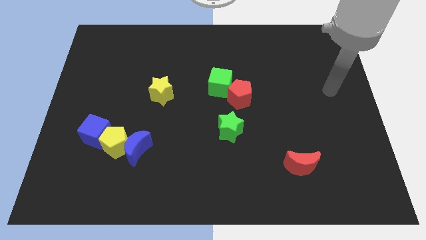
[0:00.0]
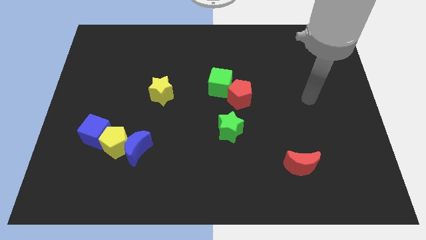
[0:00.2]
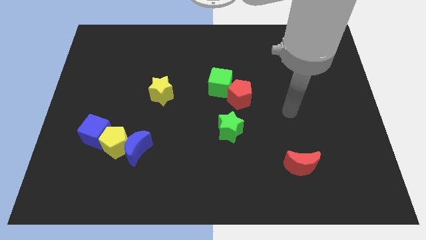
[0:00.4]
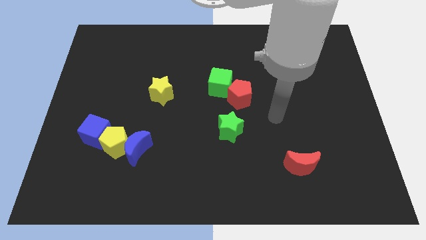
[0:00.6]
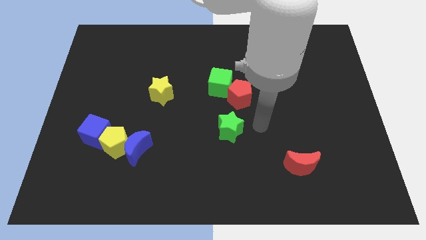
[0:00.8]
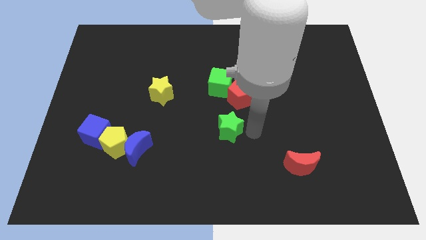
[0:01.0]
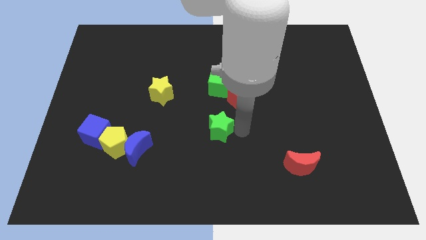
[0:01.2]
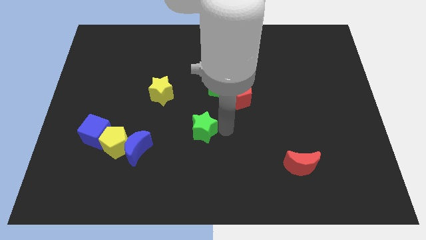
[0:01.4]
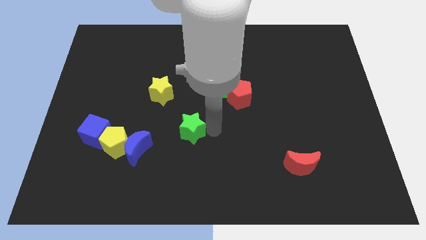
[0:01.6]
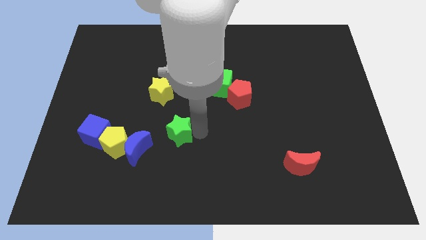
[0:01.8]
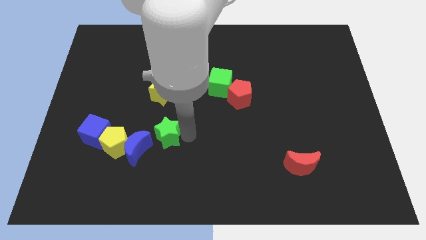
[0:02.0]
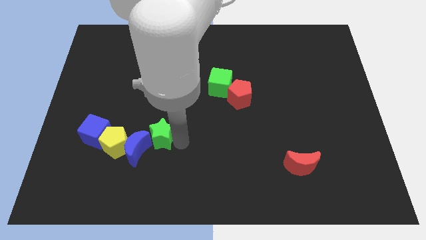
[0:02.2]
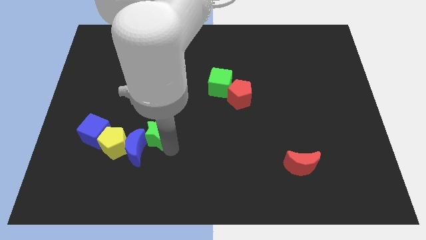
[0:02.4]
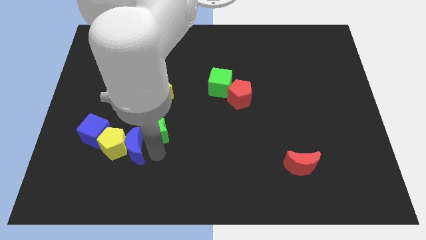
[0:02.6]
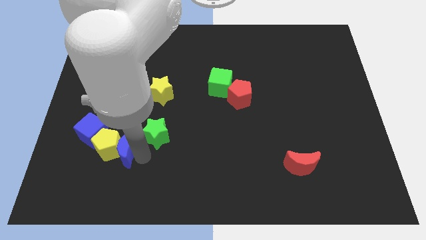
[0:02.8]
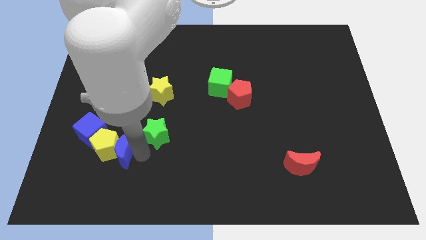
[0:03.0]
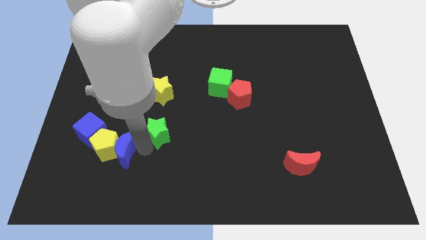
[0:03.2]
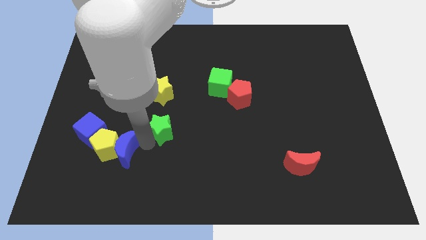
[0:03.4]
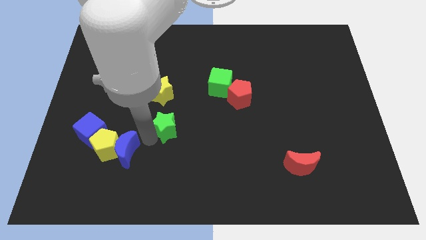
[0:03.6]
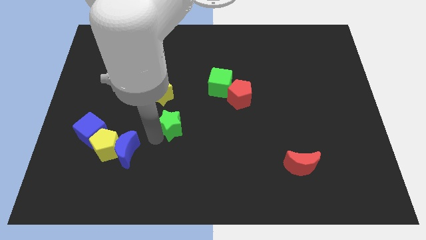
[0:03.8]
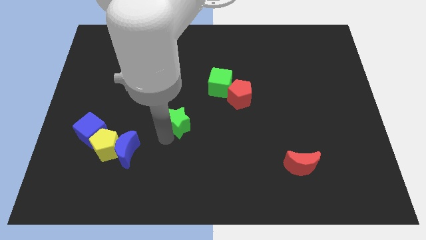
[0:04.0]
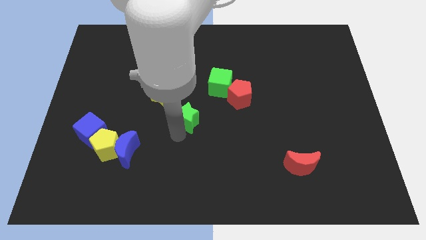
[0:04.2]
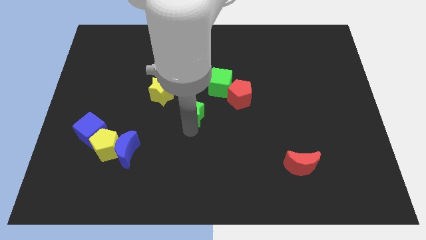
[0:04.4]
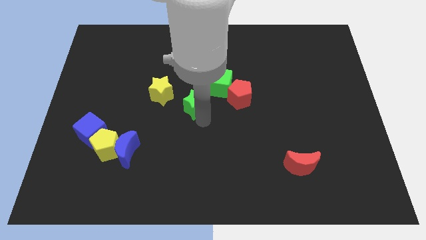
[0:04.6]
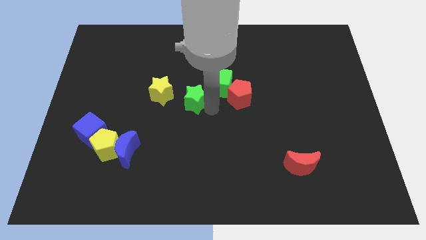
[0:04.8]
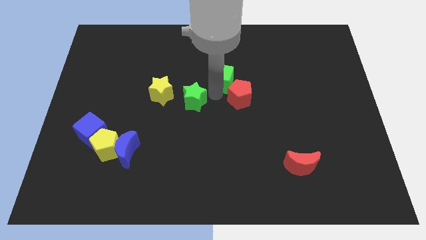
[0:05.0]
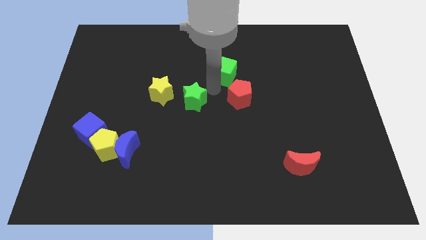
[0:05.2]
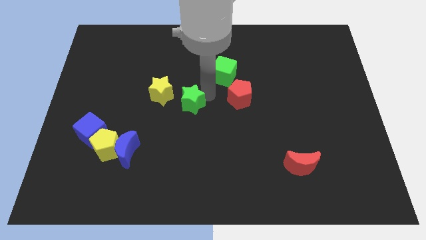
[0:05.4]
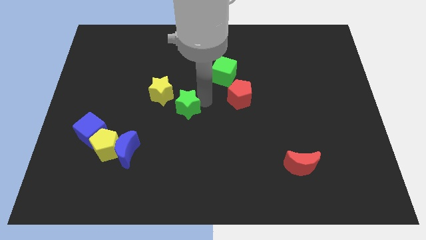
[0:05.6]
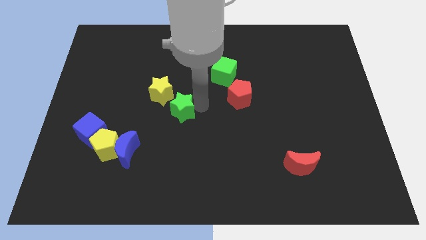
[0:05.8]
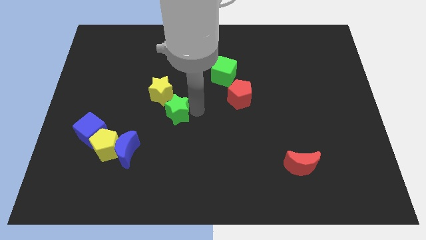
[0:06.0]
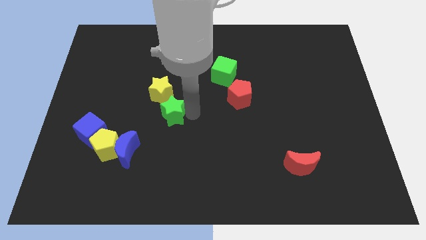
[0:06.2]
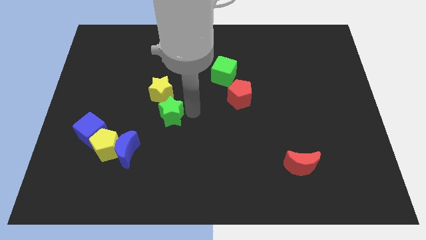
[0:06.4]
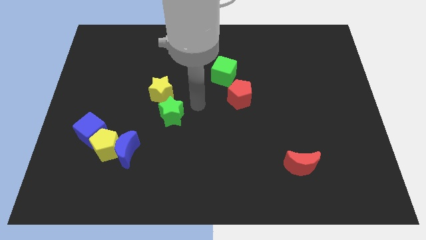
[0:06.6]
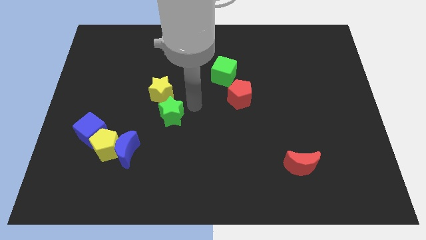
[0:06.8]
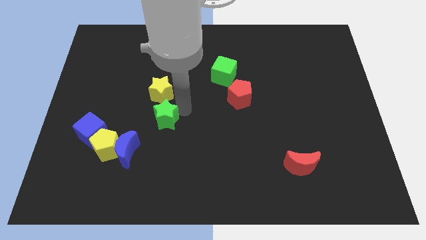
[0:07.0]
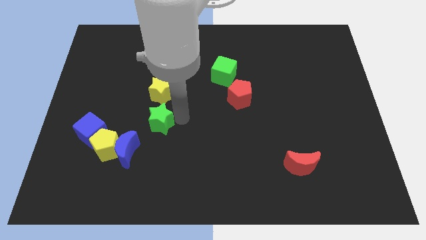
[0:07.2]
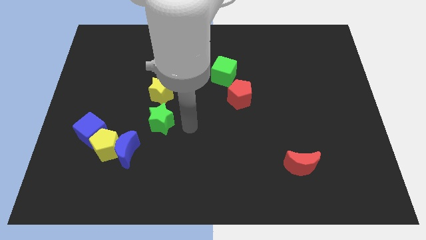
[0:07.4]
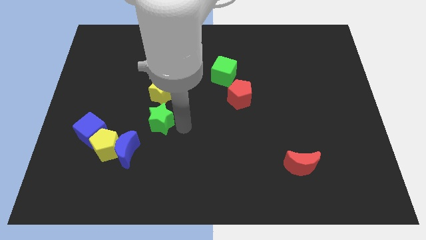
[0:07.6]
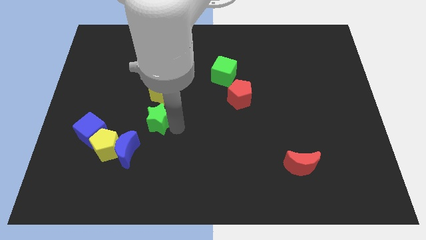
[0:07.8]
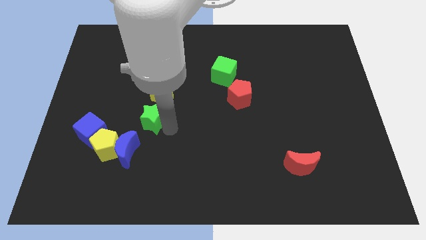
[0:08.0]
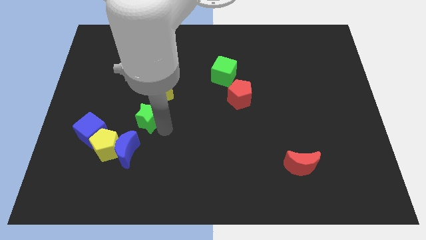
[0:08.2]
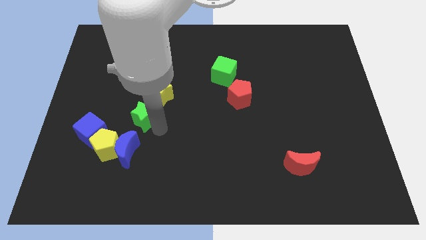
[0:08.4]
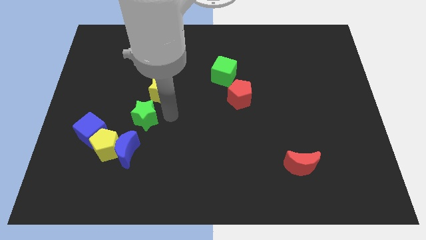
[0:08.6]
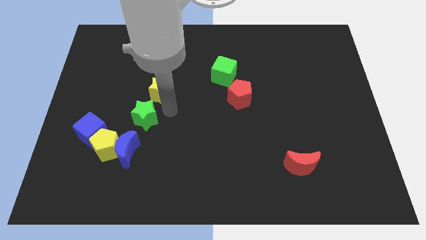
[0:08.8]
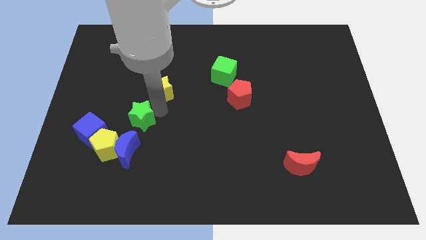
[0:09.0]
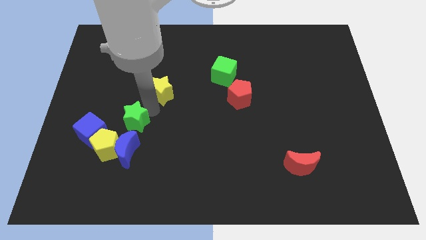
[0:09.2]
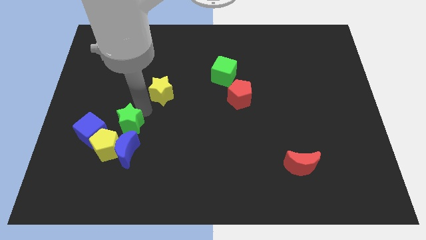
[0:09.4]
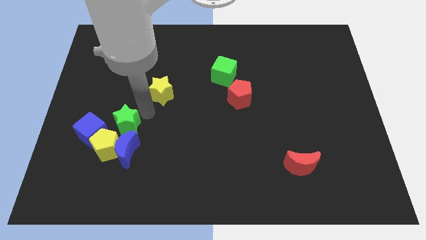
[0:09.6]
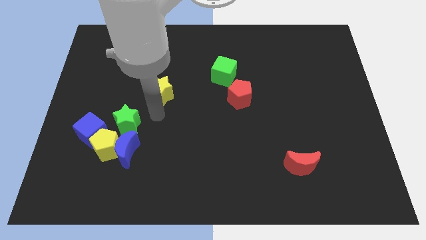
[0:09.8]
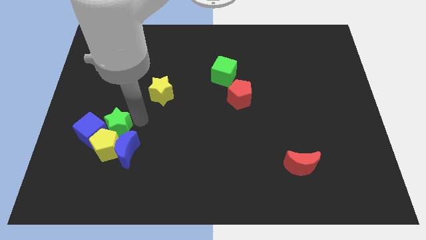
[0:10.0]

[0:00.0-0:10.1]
put the green star next to the blue cube

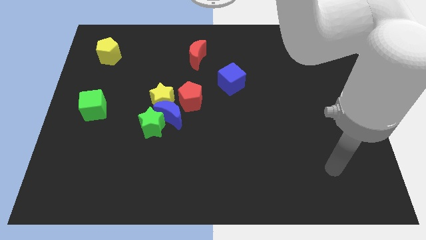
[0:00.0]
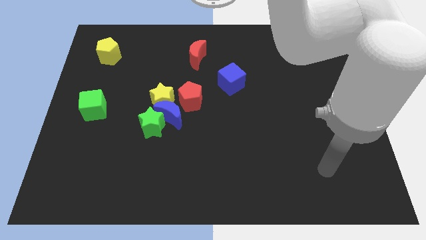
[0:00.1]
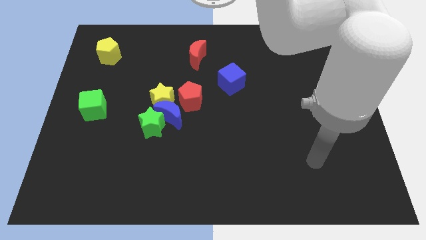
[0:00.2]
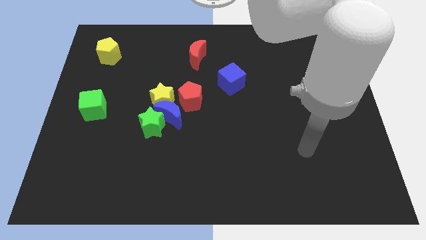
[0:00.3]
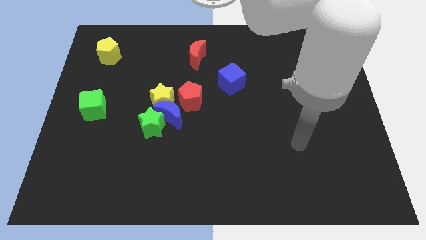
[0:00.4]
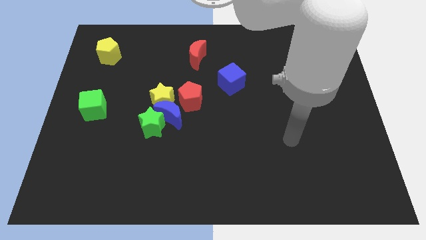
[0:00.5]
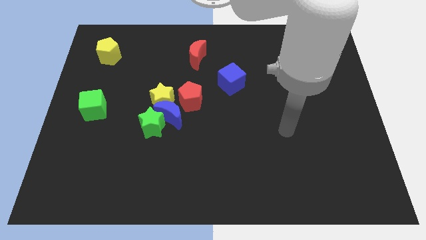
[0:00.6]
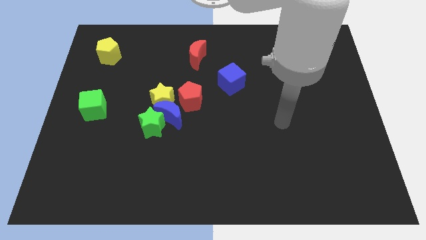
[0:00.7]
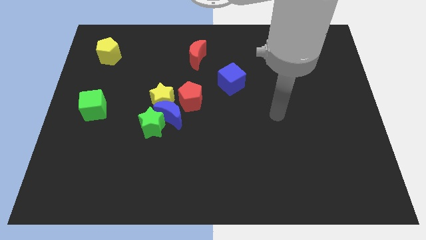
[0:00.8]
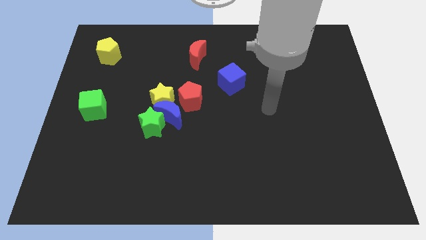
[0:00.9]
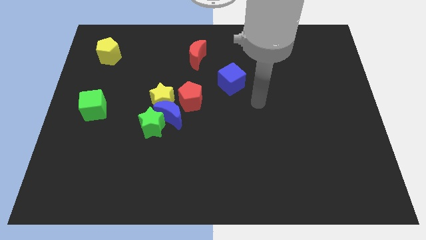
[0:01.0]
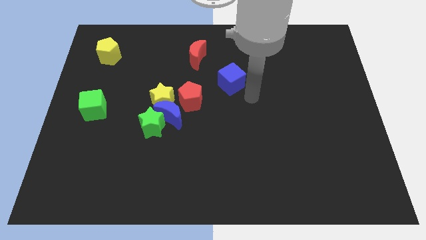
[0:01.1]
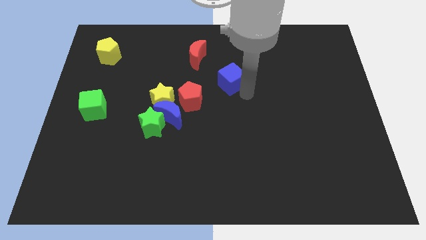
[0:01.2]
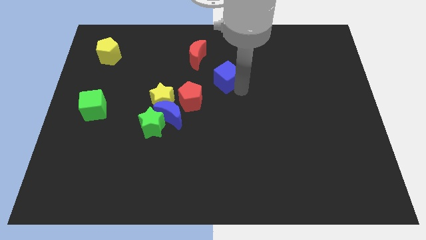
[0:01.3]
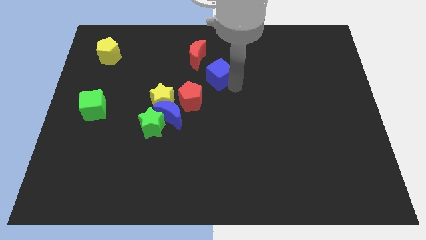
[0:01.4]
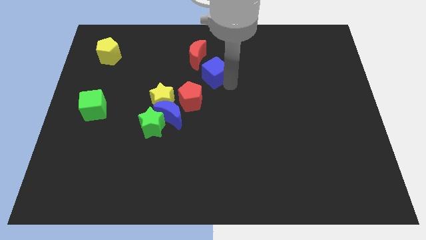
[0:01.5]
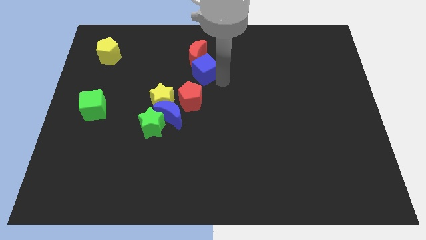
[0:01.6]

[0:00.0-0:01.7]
move the blue cube to the red moon

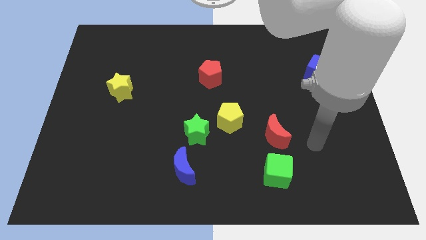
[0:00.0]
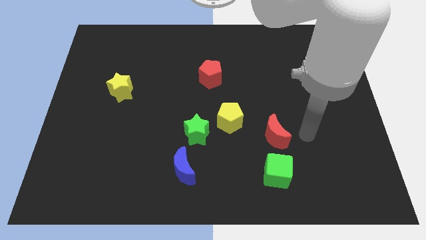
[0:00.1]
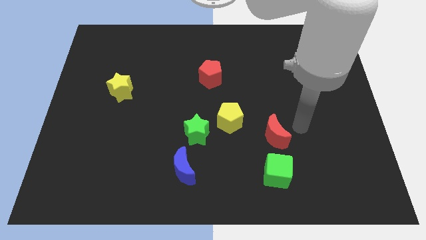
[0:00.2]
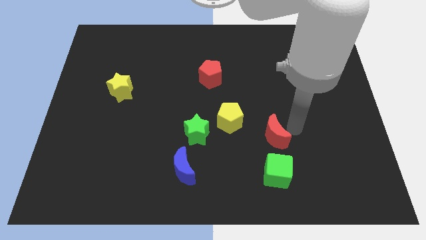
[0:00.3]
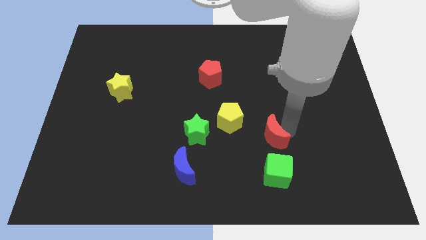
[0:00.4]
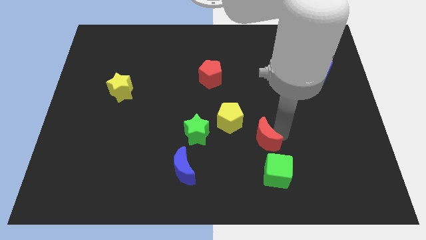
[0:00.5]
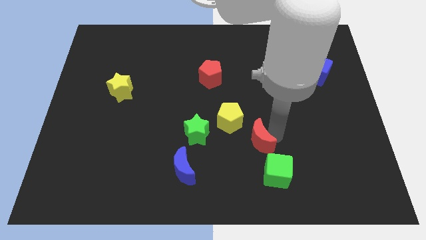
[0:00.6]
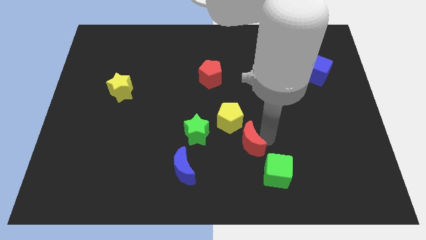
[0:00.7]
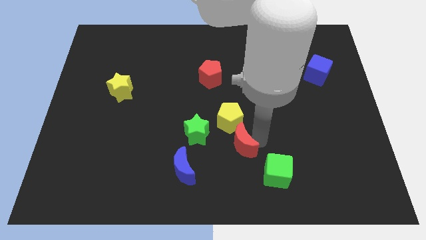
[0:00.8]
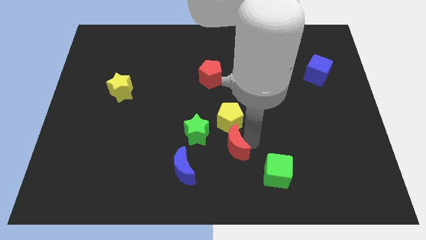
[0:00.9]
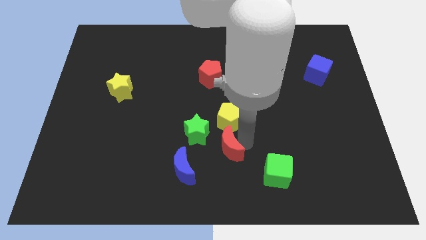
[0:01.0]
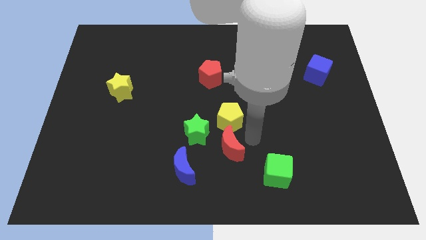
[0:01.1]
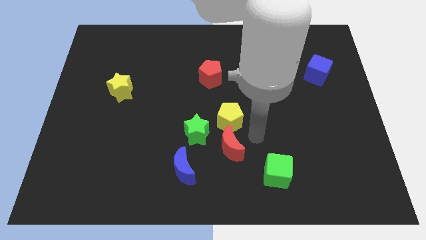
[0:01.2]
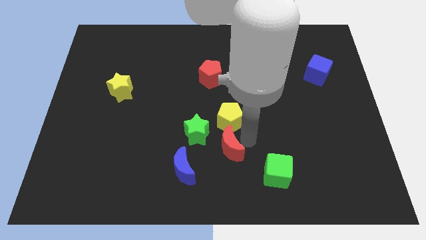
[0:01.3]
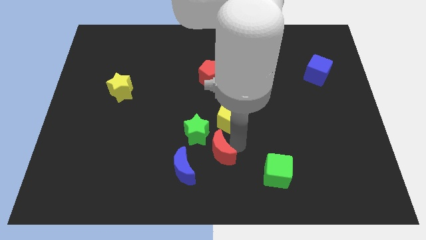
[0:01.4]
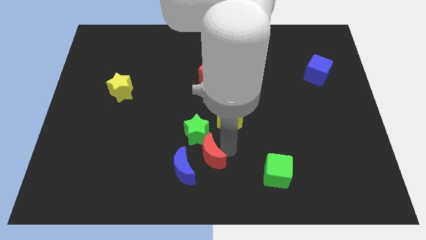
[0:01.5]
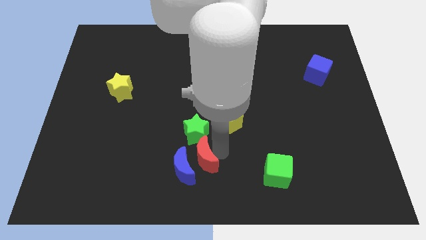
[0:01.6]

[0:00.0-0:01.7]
move the red moon towards the blue moon
